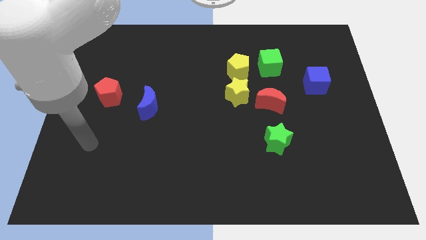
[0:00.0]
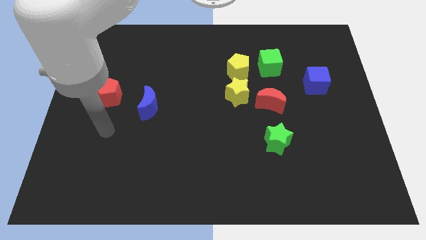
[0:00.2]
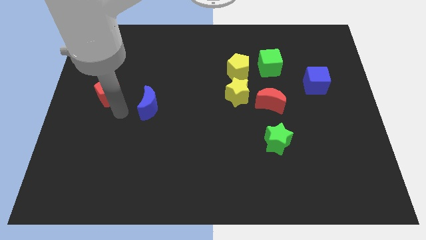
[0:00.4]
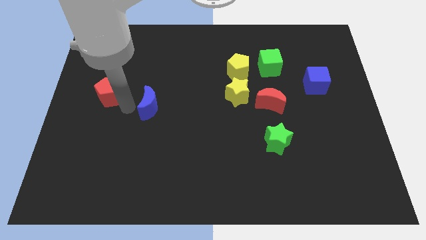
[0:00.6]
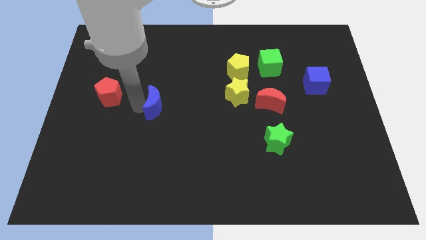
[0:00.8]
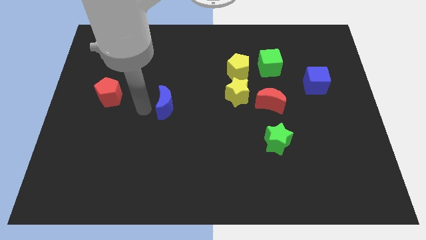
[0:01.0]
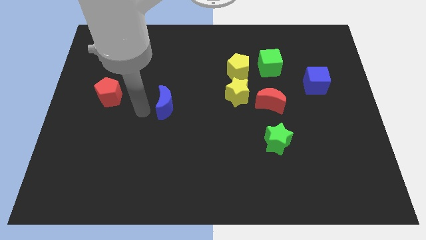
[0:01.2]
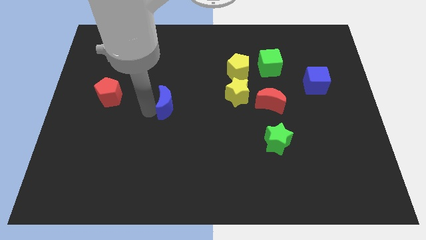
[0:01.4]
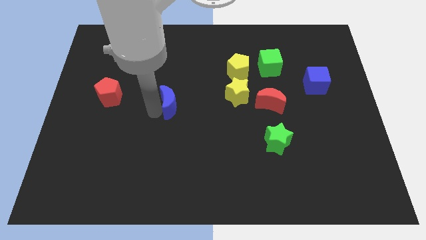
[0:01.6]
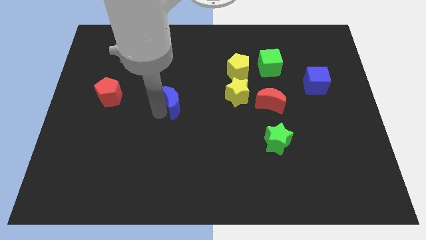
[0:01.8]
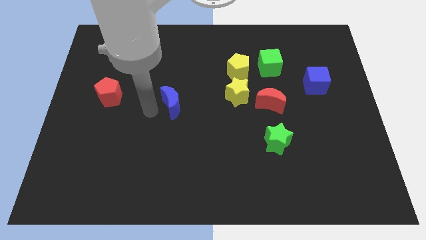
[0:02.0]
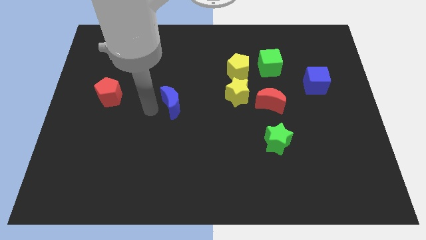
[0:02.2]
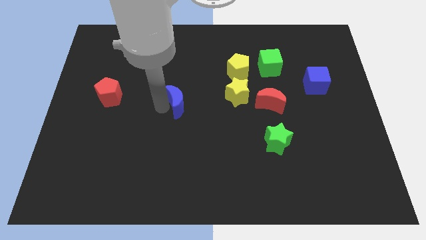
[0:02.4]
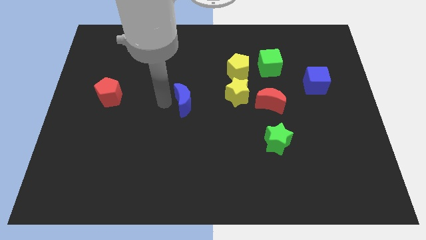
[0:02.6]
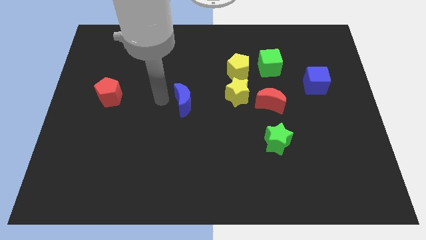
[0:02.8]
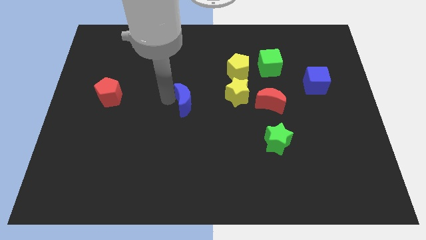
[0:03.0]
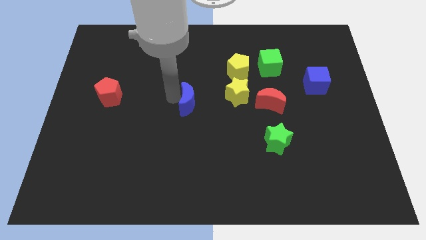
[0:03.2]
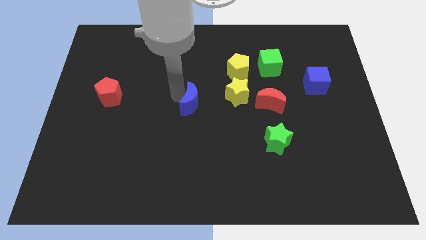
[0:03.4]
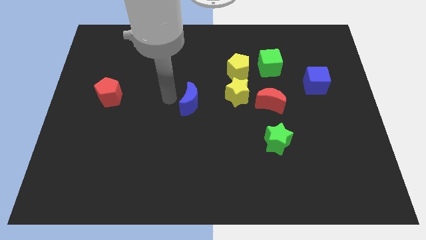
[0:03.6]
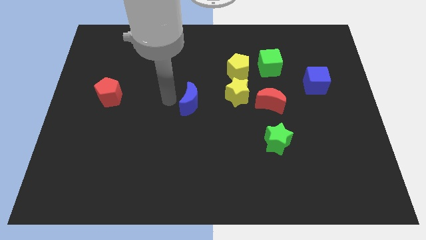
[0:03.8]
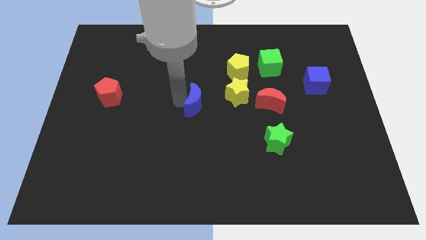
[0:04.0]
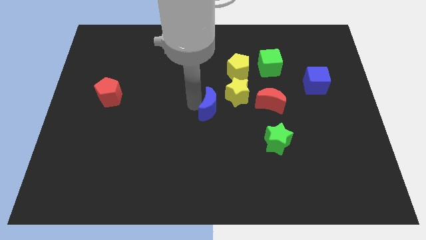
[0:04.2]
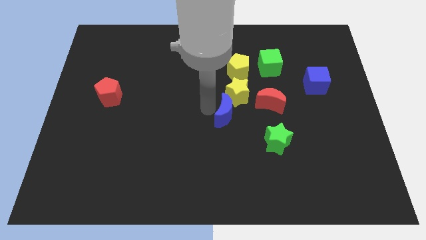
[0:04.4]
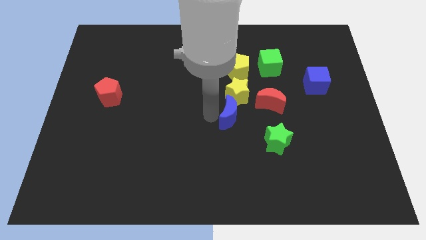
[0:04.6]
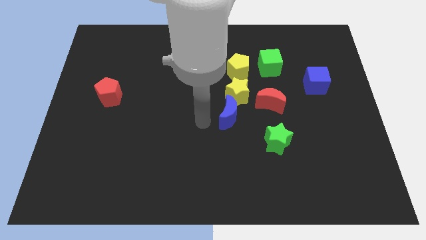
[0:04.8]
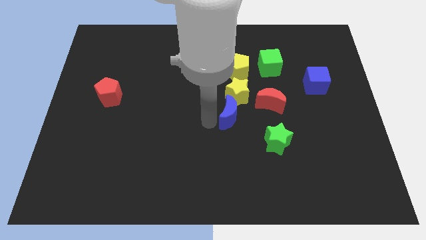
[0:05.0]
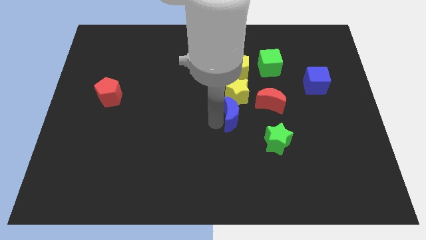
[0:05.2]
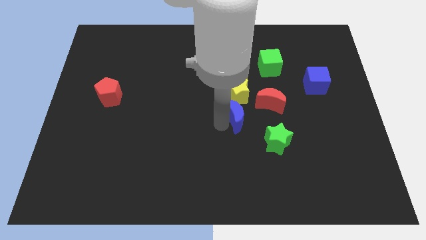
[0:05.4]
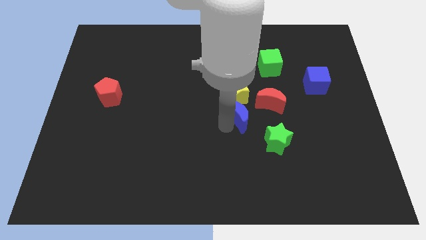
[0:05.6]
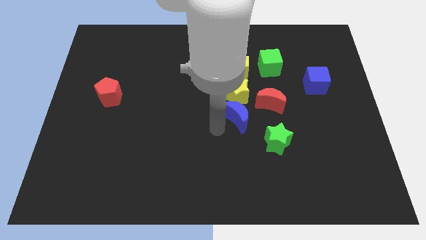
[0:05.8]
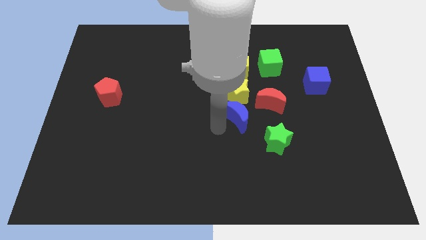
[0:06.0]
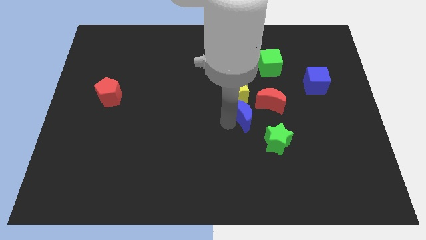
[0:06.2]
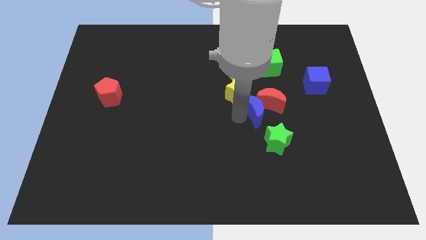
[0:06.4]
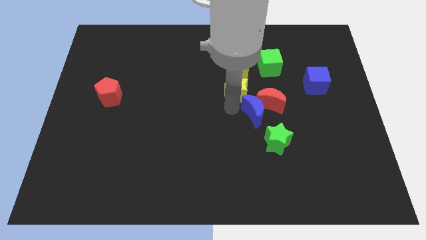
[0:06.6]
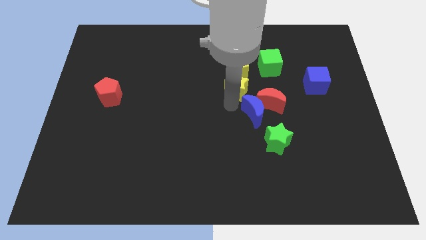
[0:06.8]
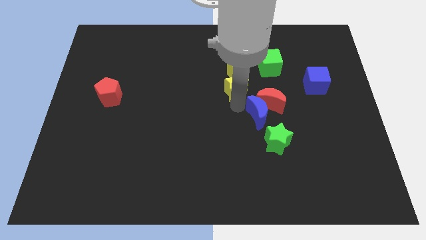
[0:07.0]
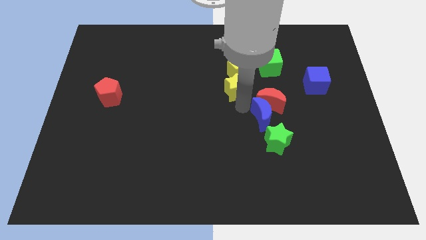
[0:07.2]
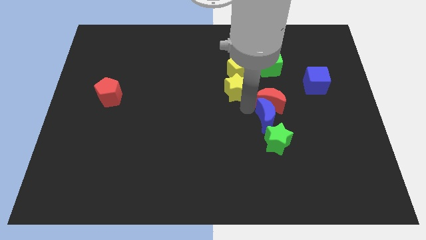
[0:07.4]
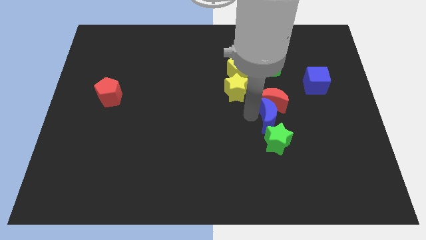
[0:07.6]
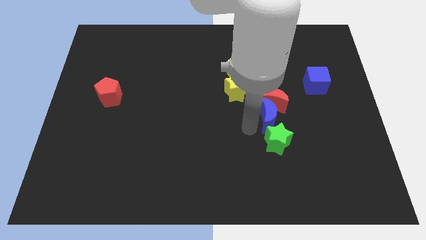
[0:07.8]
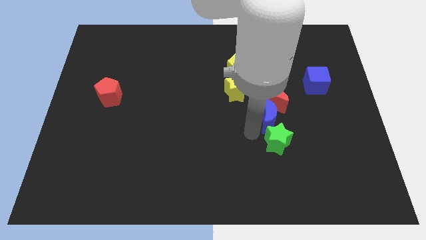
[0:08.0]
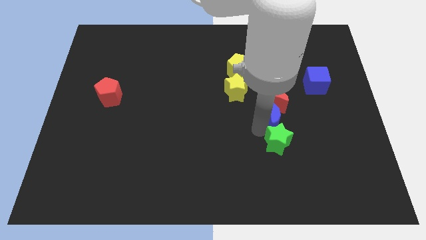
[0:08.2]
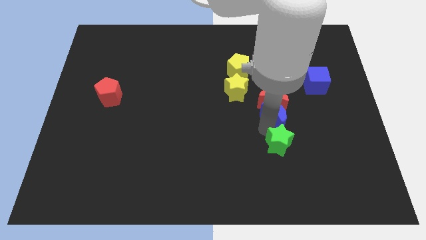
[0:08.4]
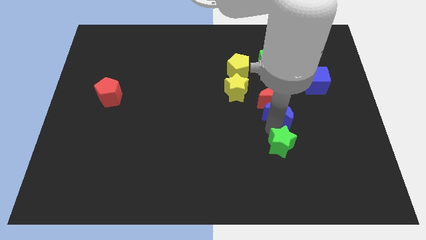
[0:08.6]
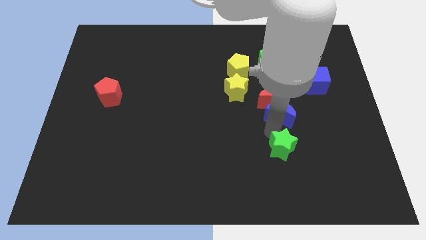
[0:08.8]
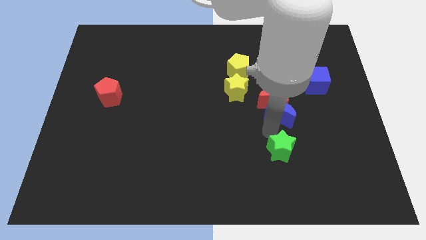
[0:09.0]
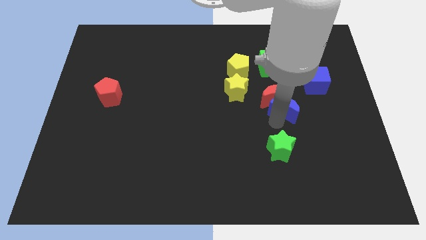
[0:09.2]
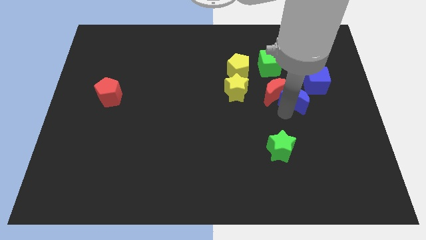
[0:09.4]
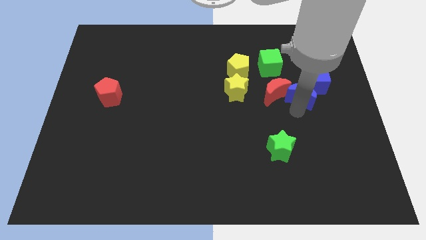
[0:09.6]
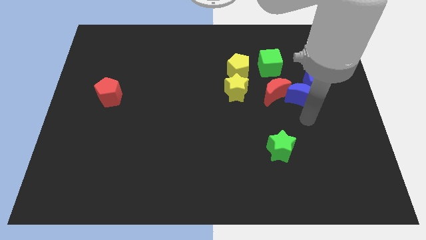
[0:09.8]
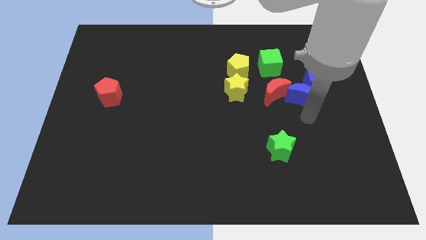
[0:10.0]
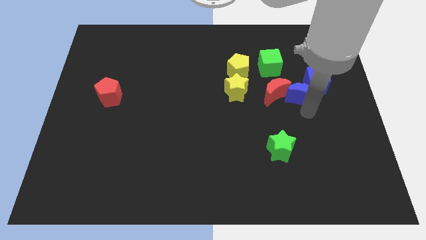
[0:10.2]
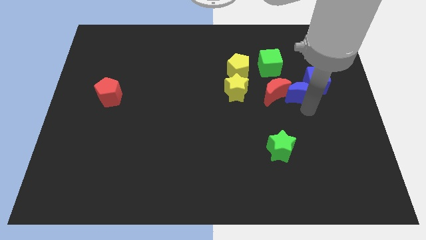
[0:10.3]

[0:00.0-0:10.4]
move the blue moon to the top right of the red moon

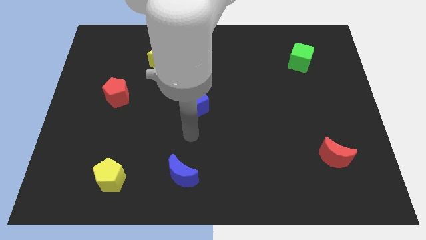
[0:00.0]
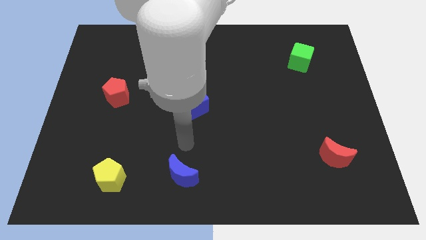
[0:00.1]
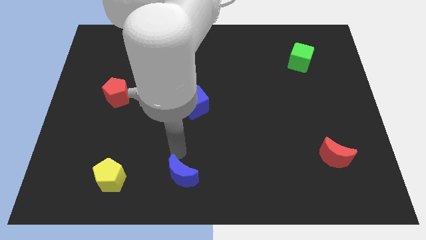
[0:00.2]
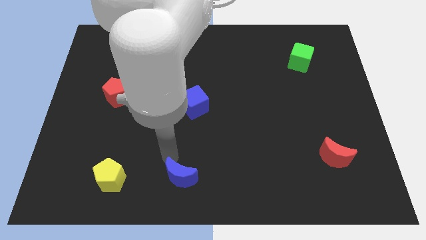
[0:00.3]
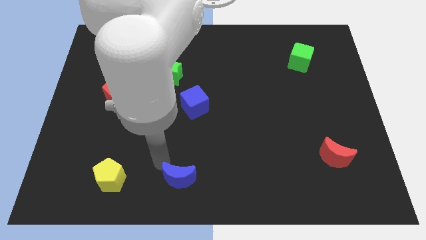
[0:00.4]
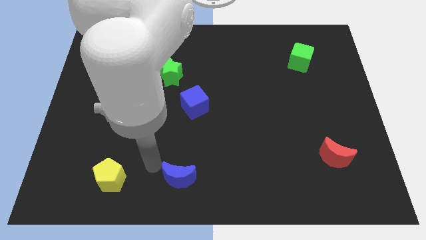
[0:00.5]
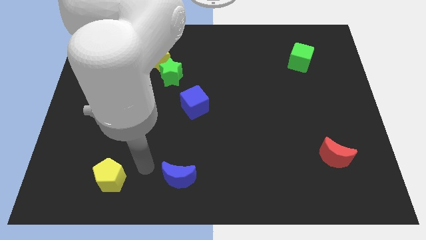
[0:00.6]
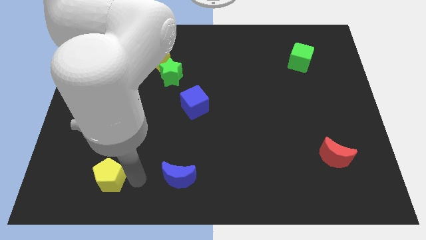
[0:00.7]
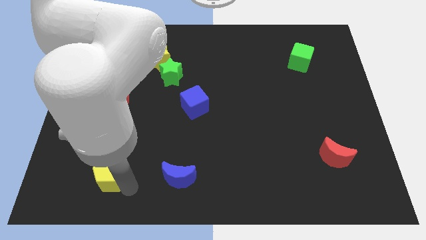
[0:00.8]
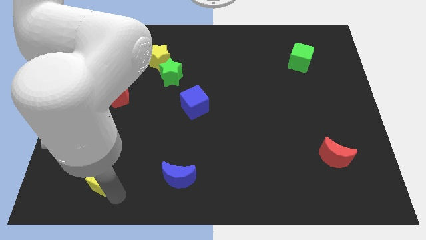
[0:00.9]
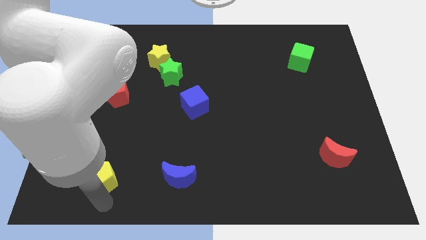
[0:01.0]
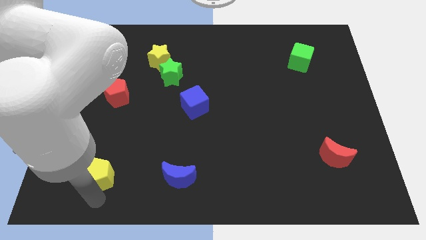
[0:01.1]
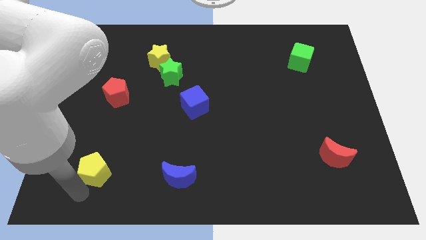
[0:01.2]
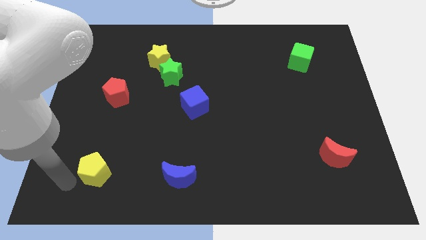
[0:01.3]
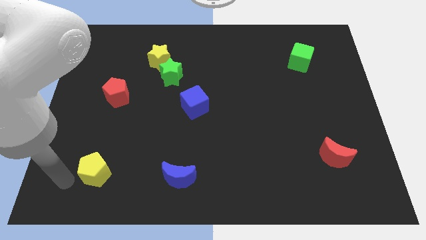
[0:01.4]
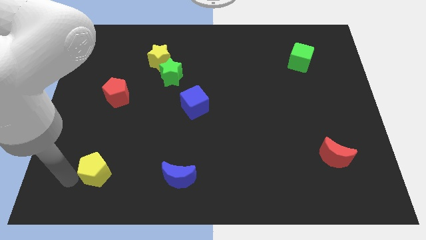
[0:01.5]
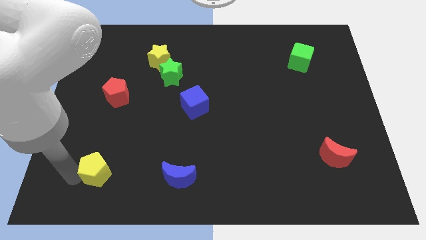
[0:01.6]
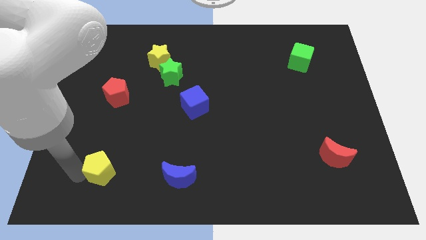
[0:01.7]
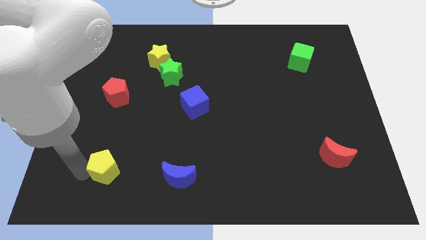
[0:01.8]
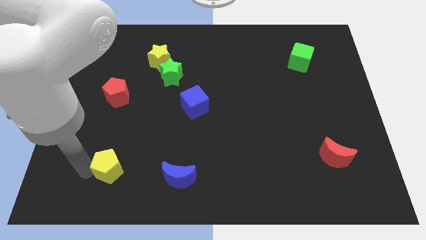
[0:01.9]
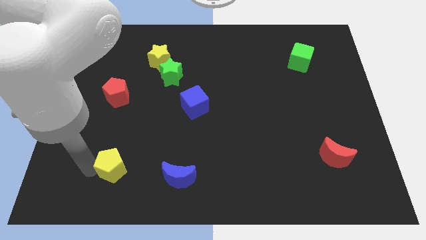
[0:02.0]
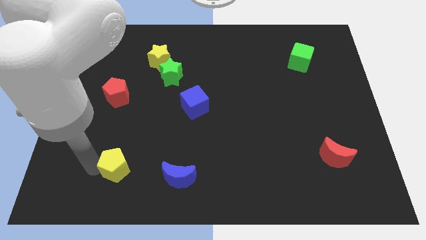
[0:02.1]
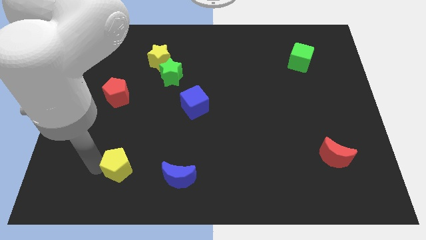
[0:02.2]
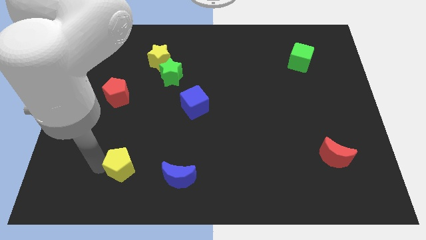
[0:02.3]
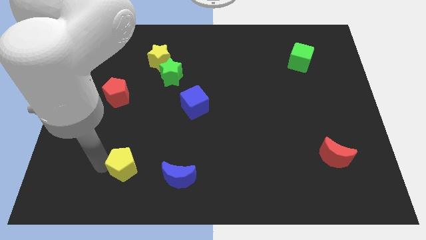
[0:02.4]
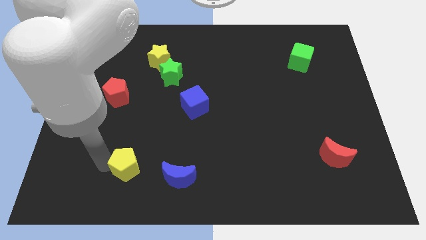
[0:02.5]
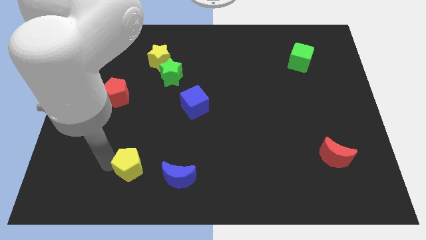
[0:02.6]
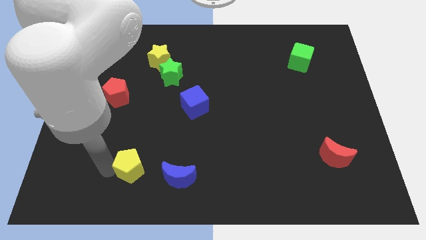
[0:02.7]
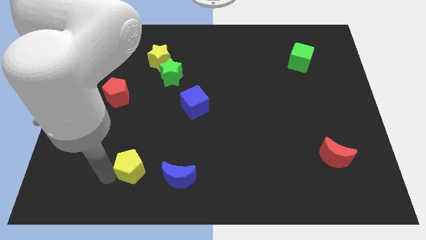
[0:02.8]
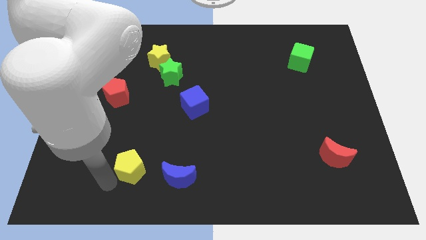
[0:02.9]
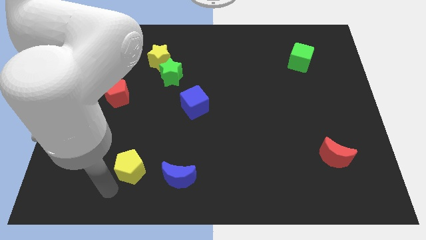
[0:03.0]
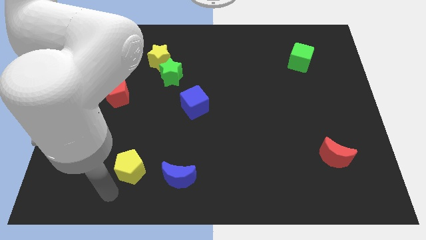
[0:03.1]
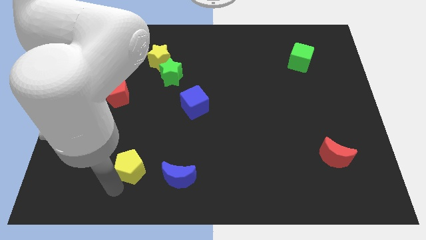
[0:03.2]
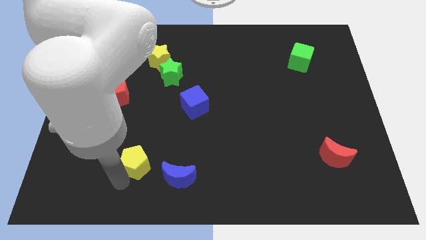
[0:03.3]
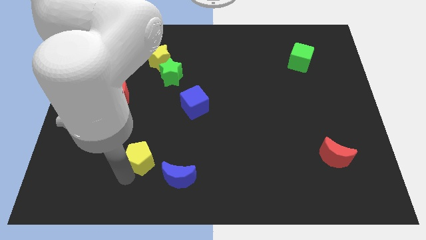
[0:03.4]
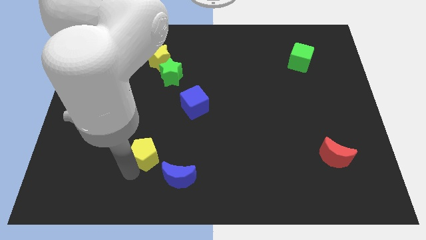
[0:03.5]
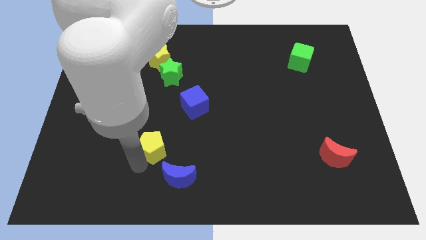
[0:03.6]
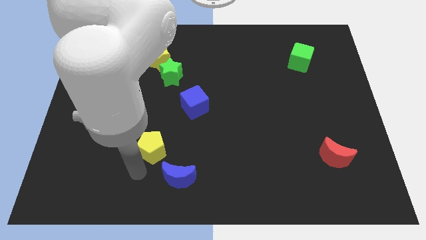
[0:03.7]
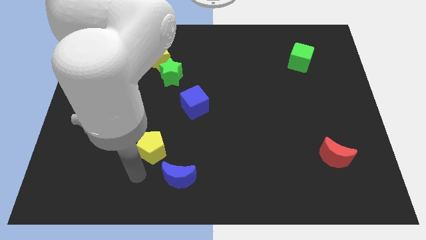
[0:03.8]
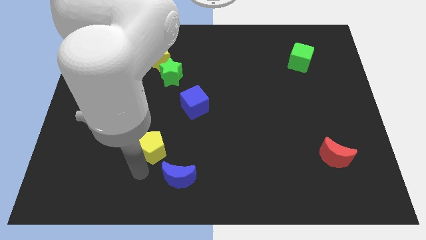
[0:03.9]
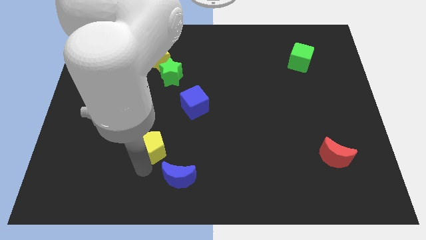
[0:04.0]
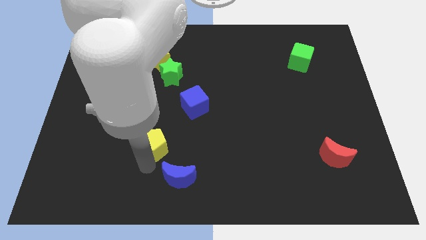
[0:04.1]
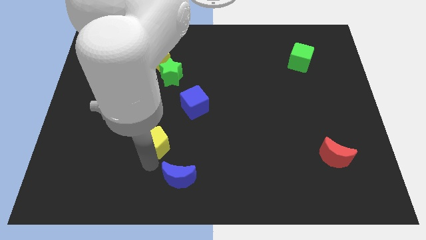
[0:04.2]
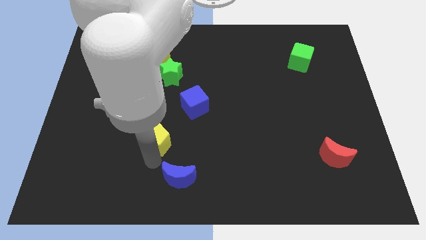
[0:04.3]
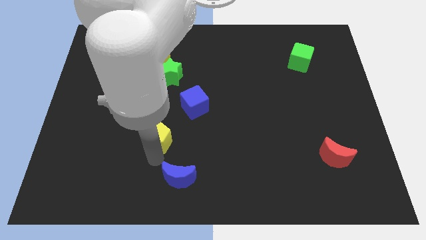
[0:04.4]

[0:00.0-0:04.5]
slide the yellow pentagon to the bottom left of the blue cube
